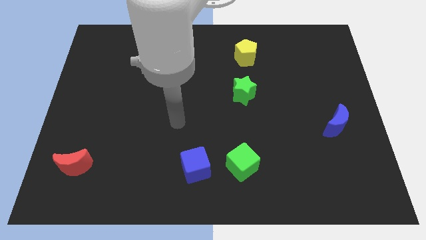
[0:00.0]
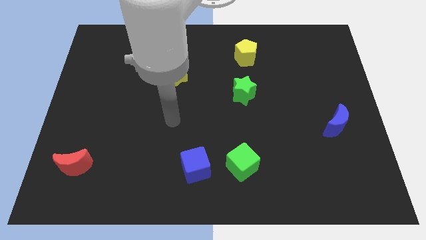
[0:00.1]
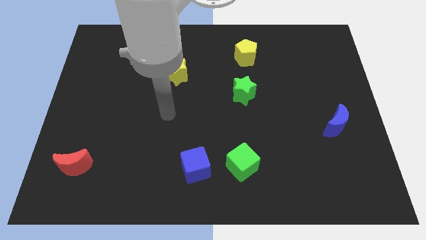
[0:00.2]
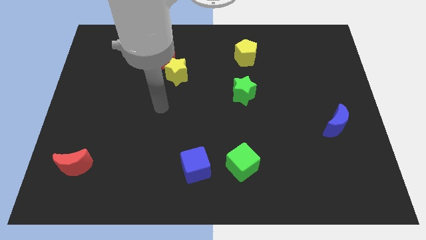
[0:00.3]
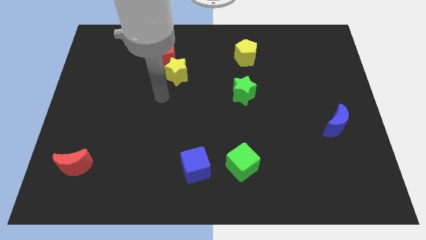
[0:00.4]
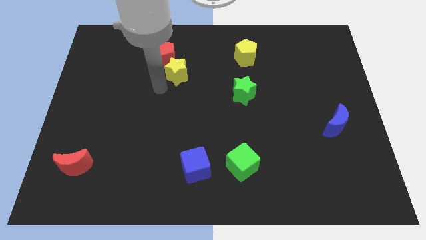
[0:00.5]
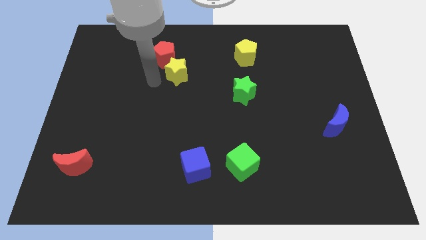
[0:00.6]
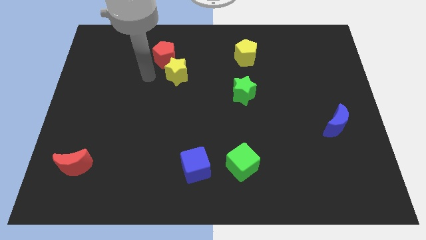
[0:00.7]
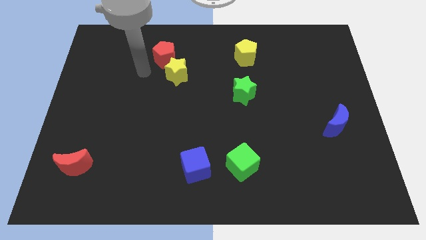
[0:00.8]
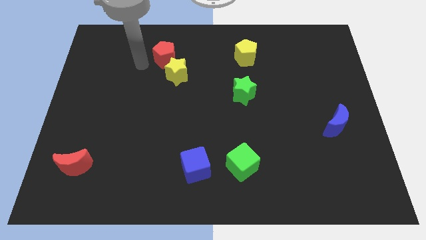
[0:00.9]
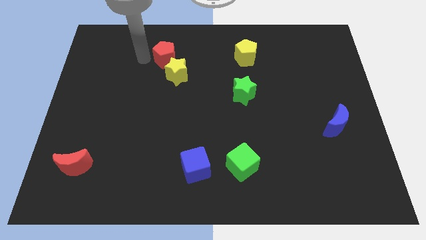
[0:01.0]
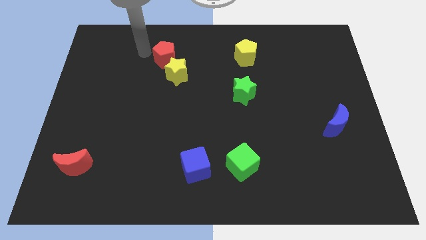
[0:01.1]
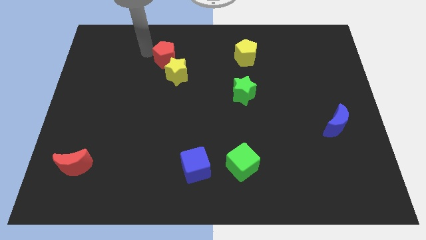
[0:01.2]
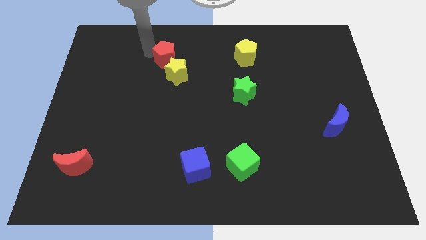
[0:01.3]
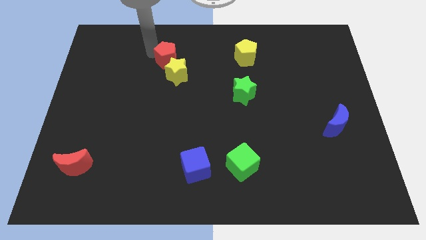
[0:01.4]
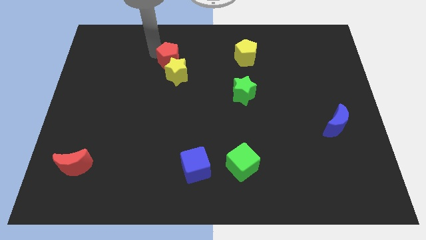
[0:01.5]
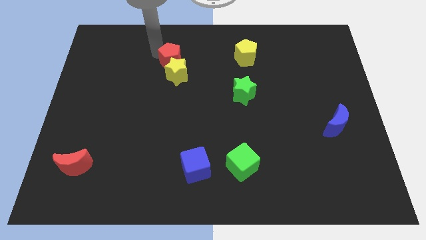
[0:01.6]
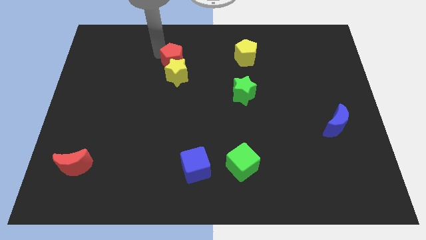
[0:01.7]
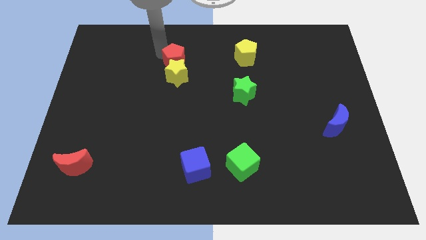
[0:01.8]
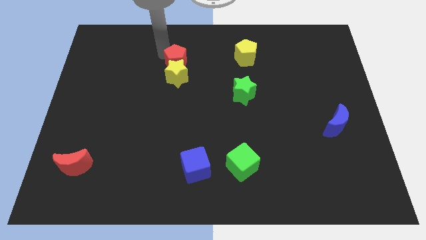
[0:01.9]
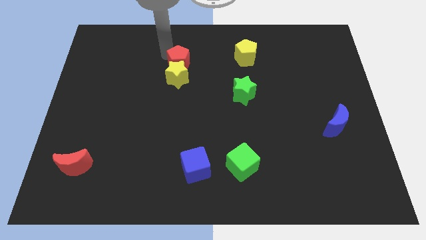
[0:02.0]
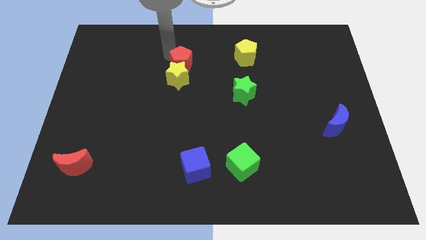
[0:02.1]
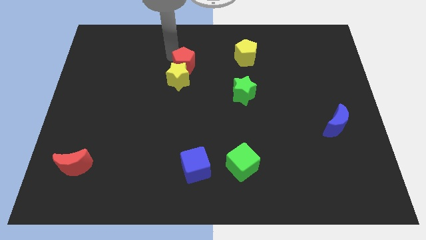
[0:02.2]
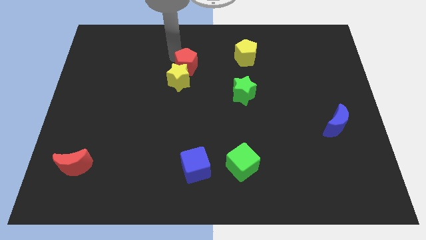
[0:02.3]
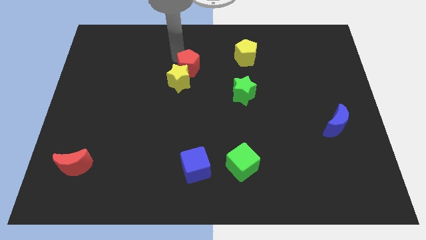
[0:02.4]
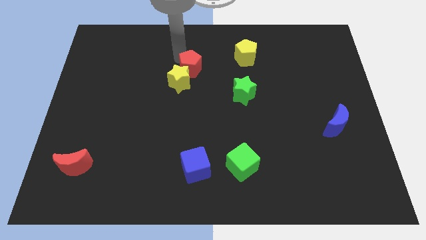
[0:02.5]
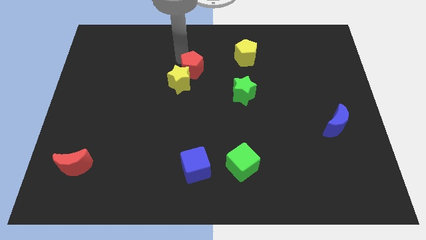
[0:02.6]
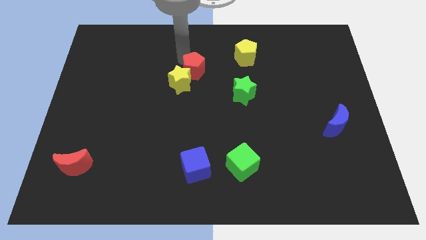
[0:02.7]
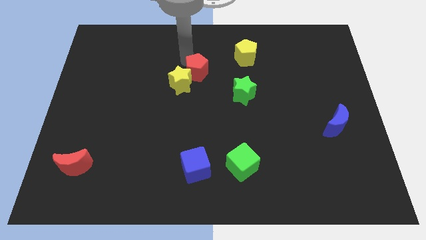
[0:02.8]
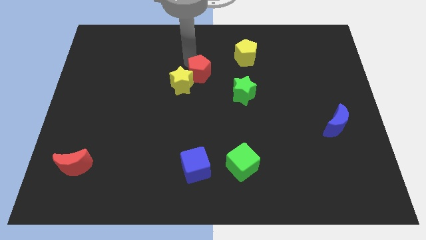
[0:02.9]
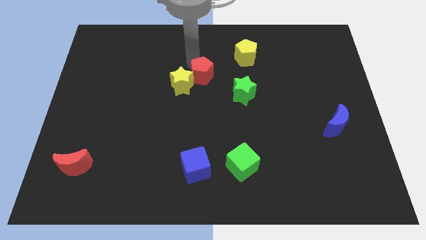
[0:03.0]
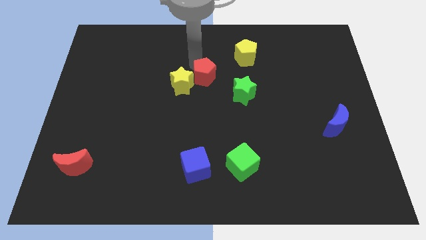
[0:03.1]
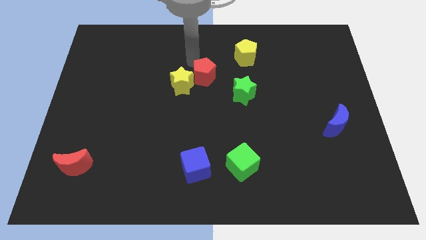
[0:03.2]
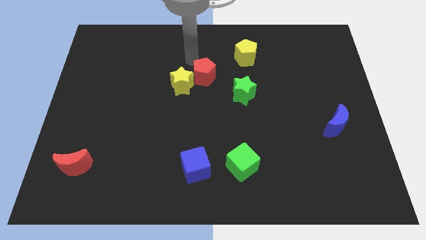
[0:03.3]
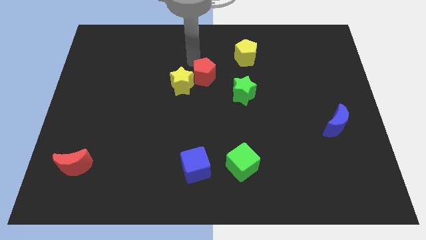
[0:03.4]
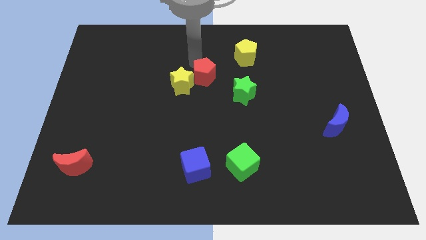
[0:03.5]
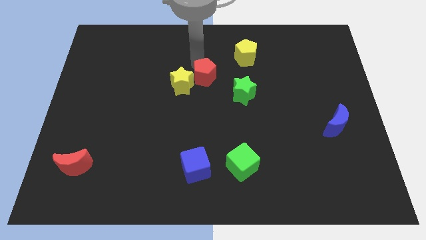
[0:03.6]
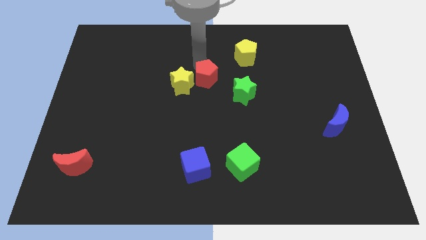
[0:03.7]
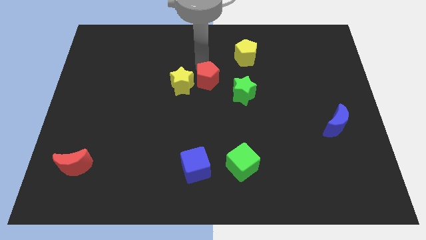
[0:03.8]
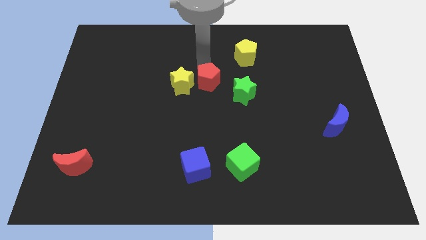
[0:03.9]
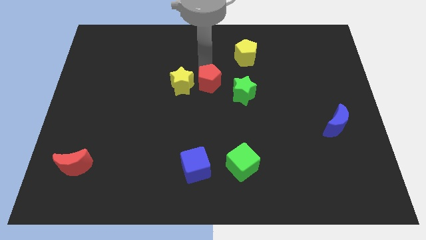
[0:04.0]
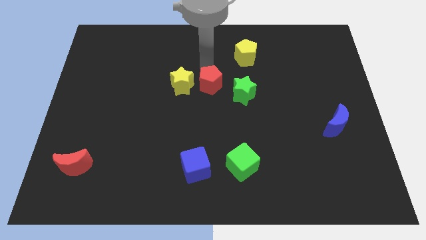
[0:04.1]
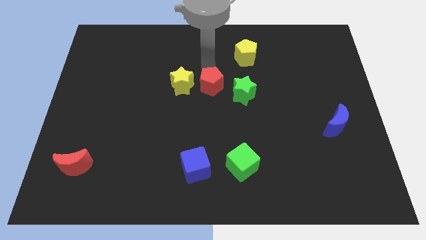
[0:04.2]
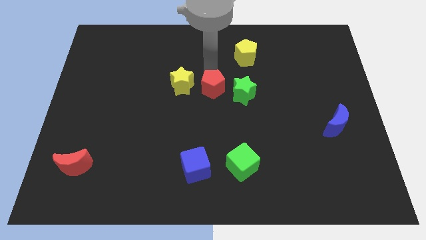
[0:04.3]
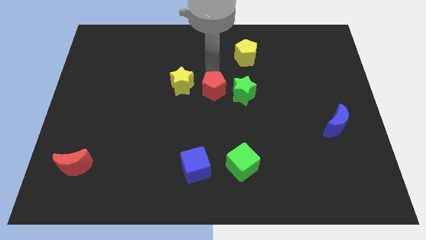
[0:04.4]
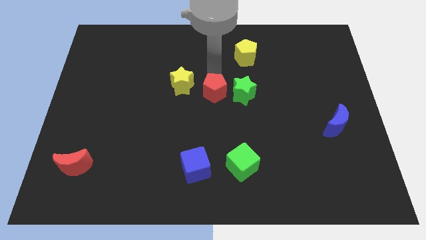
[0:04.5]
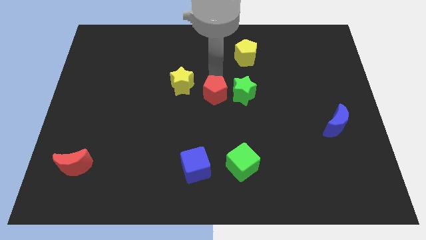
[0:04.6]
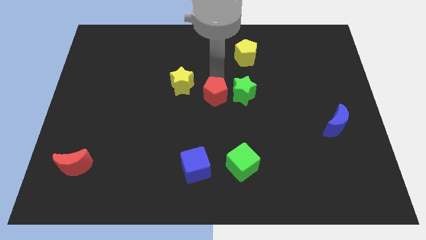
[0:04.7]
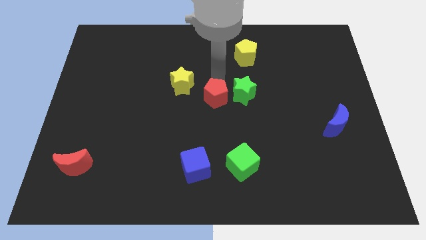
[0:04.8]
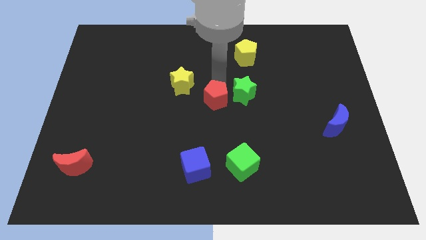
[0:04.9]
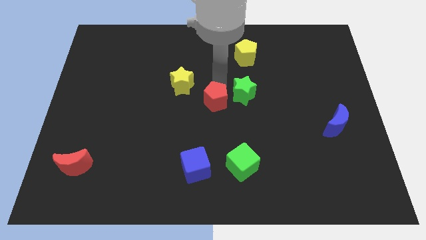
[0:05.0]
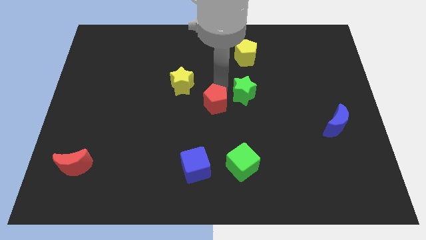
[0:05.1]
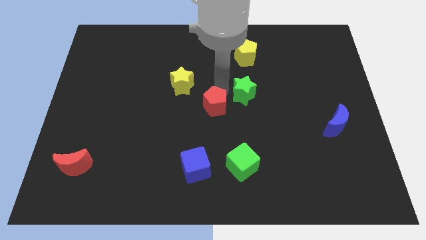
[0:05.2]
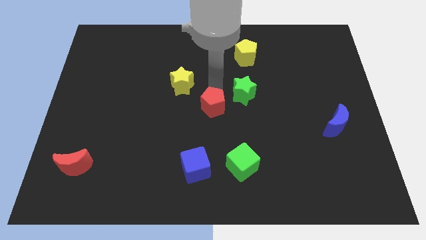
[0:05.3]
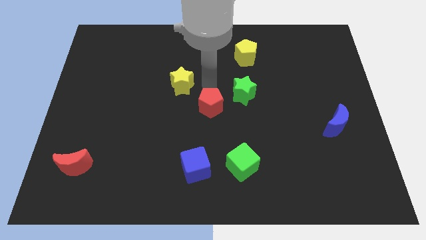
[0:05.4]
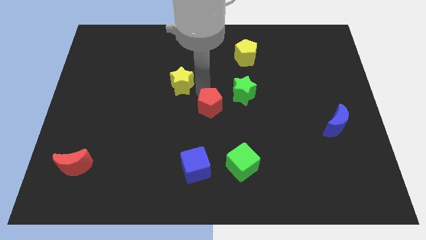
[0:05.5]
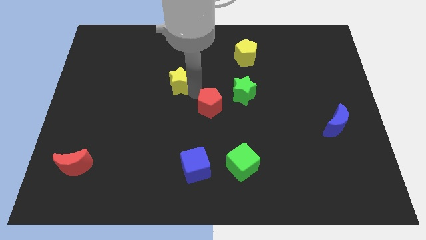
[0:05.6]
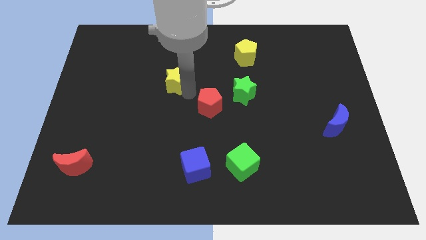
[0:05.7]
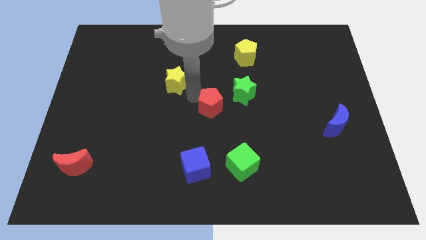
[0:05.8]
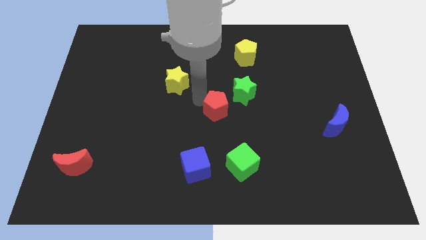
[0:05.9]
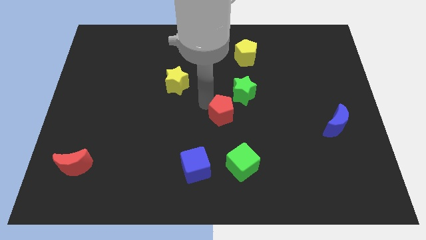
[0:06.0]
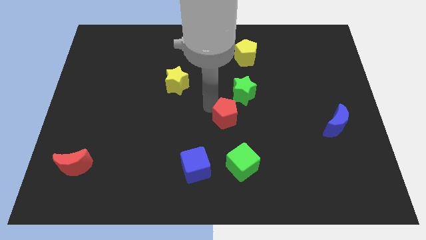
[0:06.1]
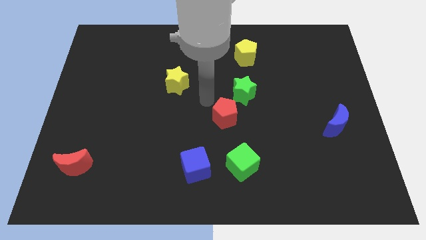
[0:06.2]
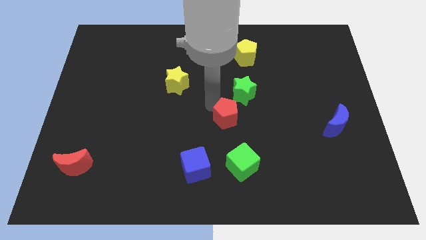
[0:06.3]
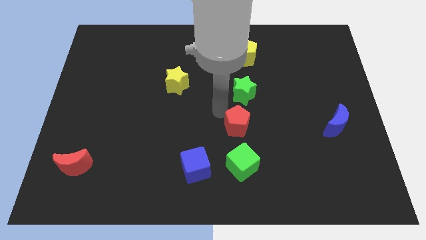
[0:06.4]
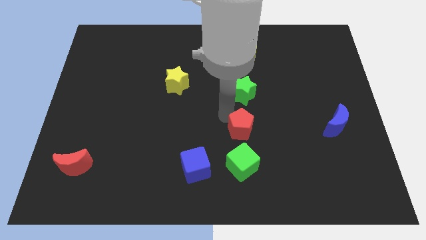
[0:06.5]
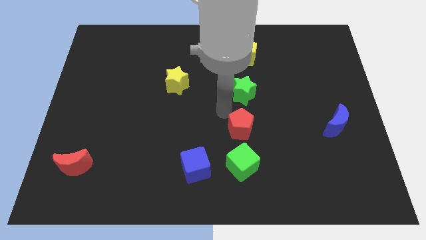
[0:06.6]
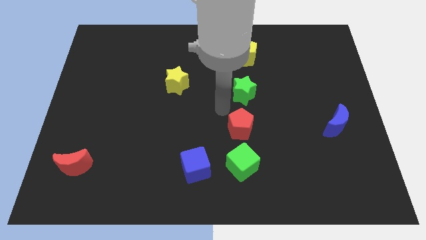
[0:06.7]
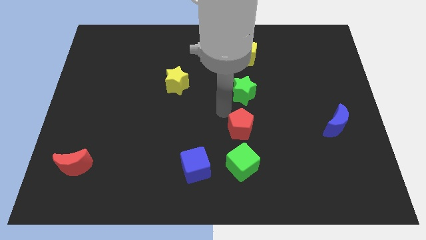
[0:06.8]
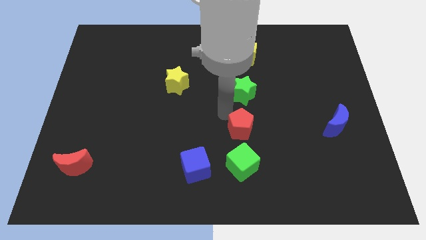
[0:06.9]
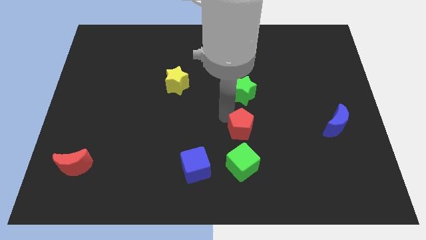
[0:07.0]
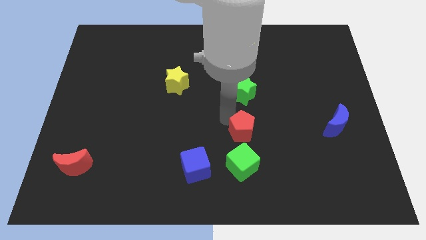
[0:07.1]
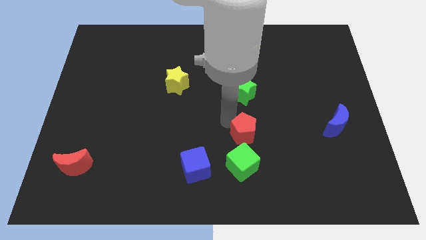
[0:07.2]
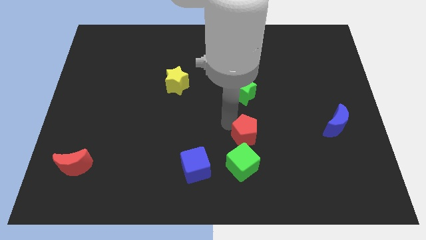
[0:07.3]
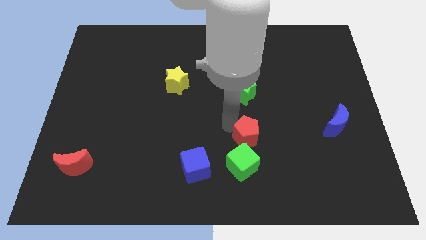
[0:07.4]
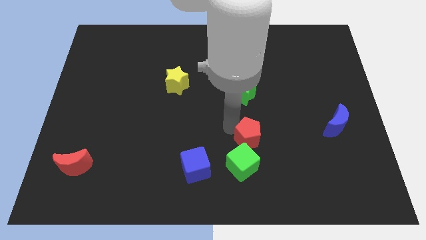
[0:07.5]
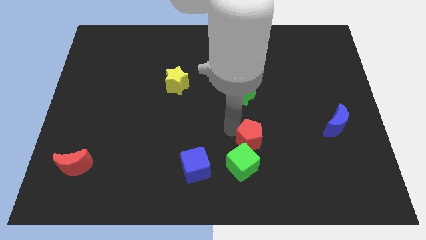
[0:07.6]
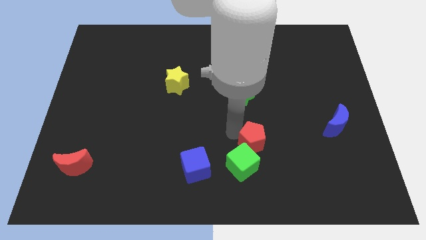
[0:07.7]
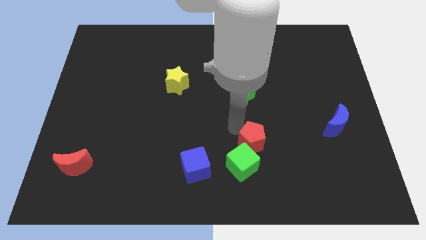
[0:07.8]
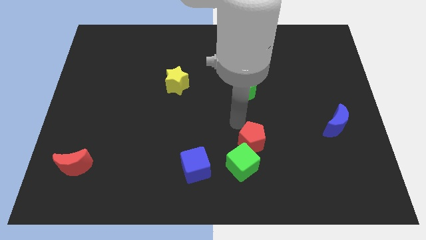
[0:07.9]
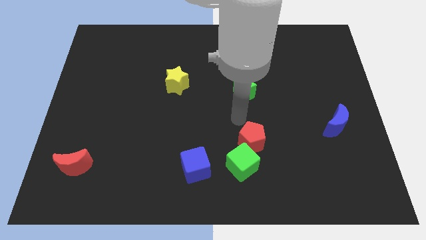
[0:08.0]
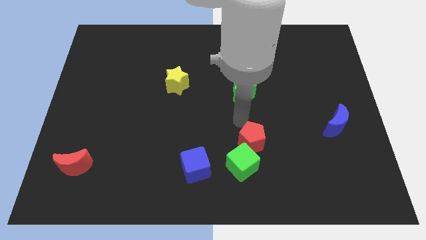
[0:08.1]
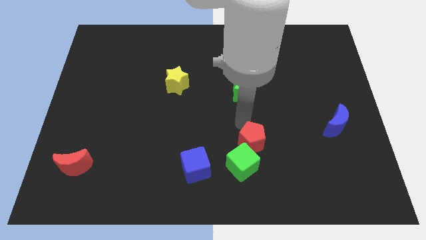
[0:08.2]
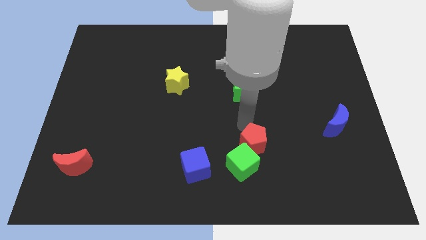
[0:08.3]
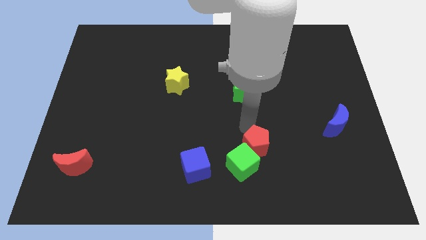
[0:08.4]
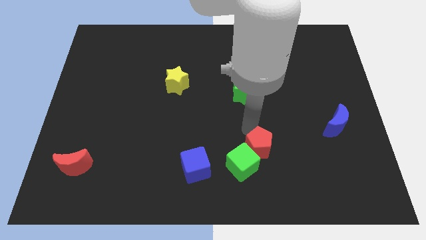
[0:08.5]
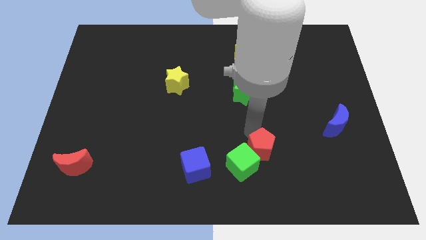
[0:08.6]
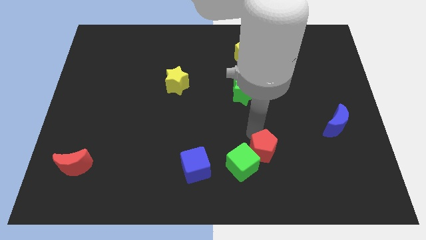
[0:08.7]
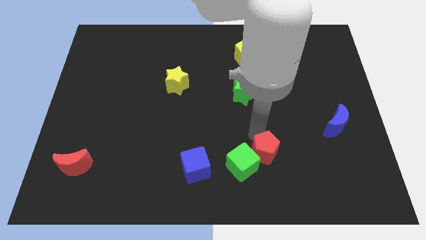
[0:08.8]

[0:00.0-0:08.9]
put the red pentagon right of the blue cube
